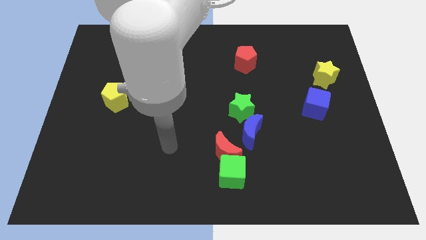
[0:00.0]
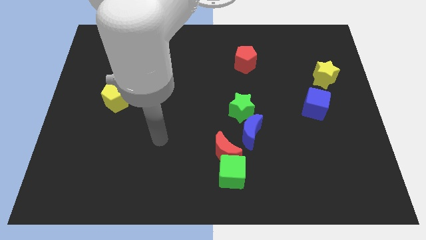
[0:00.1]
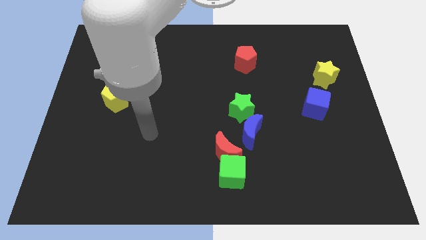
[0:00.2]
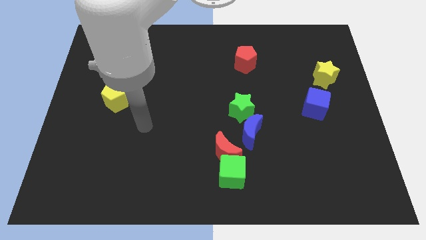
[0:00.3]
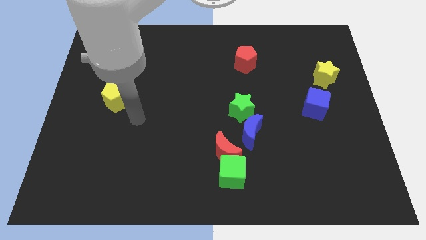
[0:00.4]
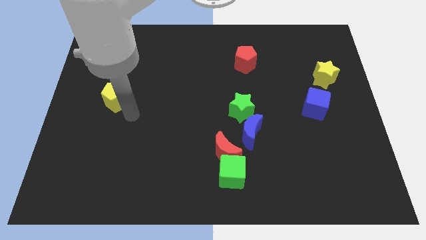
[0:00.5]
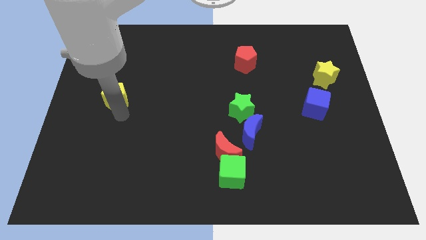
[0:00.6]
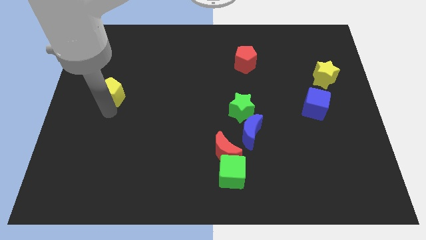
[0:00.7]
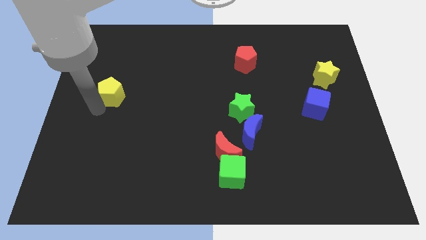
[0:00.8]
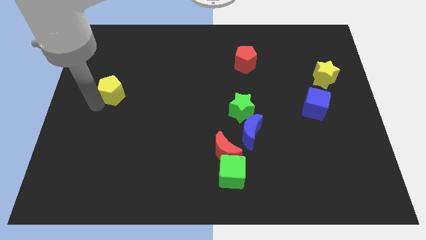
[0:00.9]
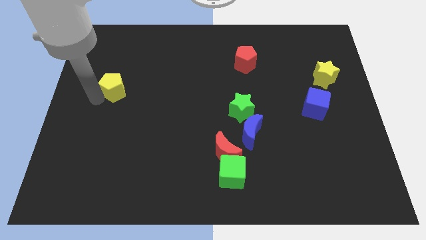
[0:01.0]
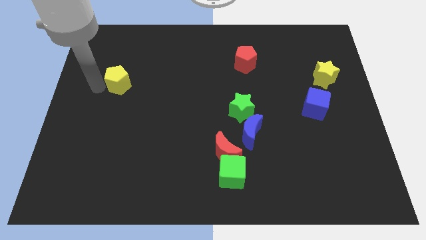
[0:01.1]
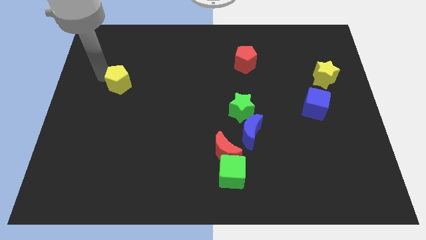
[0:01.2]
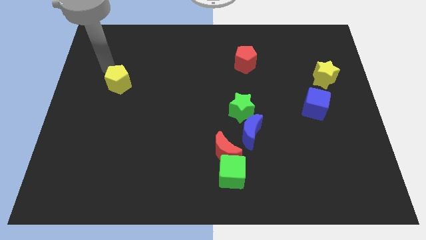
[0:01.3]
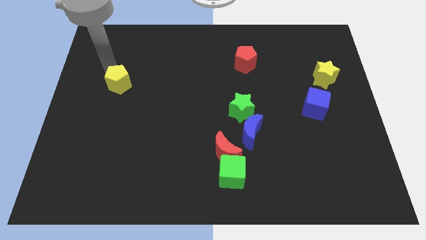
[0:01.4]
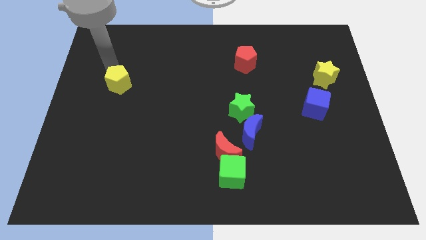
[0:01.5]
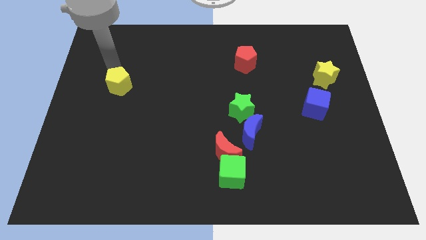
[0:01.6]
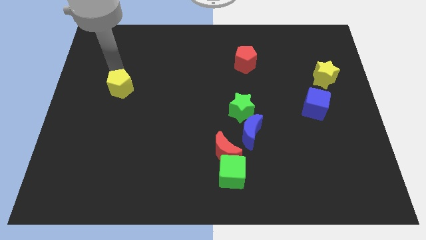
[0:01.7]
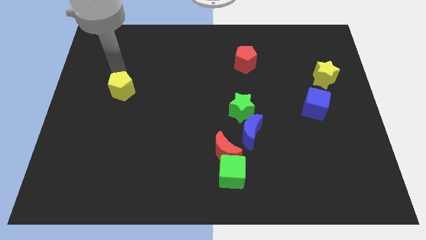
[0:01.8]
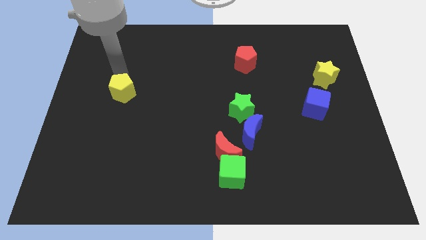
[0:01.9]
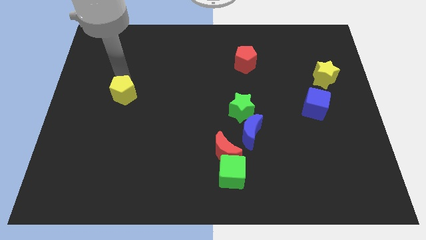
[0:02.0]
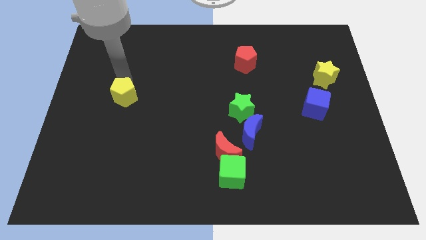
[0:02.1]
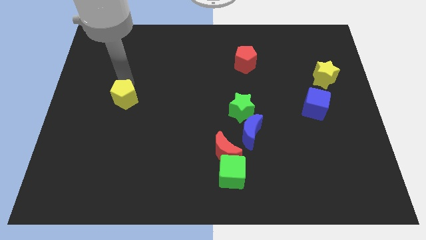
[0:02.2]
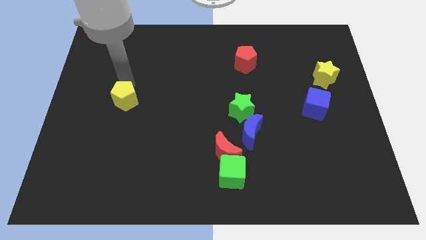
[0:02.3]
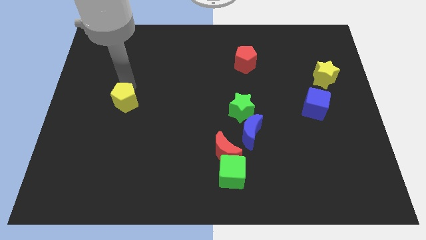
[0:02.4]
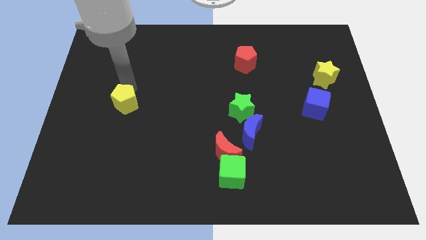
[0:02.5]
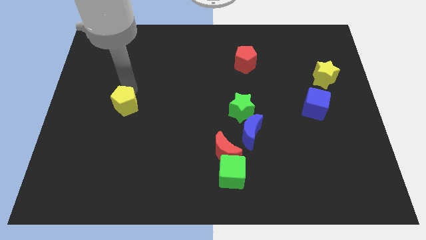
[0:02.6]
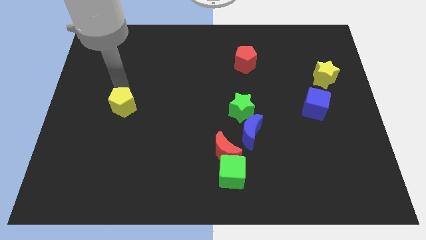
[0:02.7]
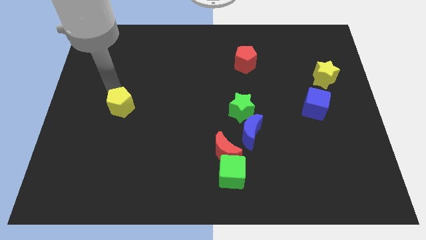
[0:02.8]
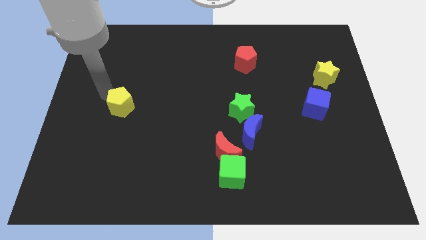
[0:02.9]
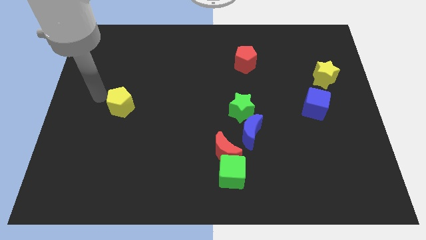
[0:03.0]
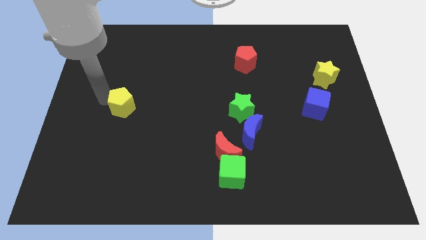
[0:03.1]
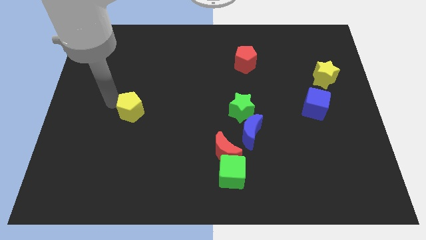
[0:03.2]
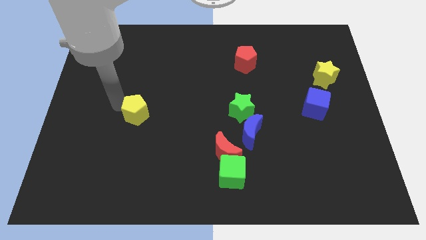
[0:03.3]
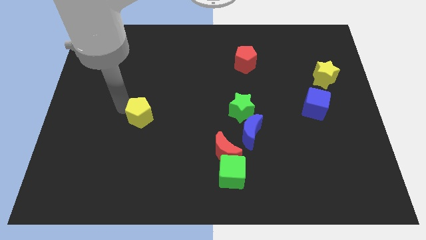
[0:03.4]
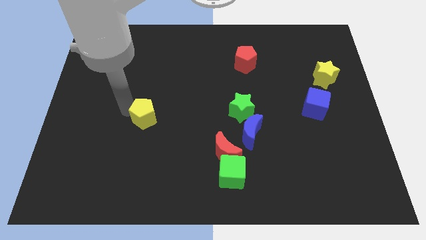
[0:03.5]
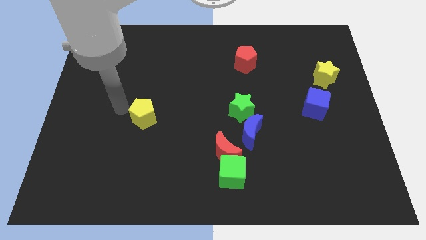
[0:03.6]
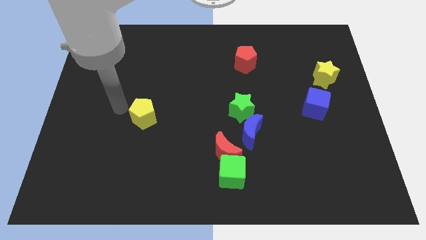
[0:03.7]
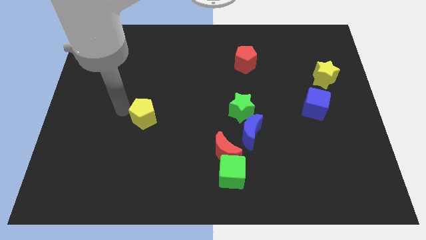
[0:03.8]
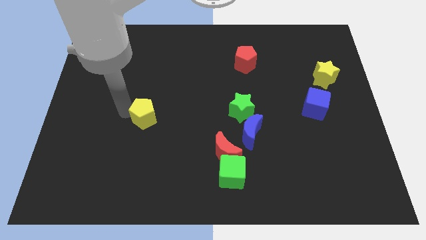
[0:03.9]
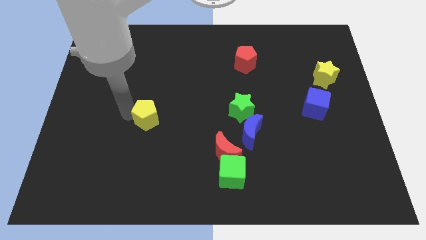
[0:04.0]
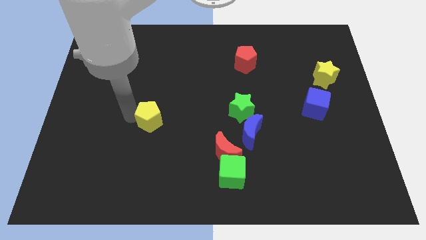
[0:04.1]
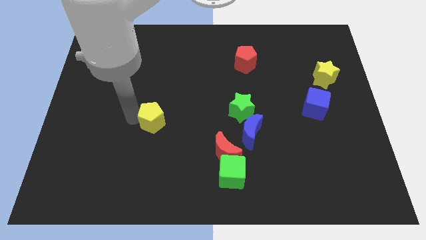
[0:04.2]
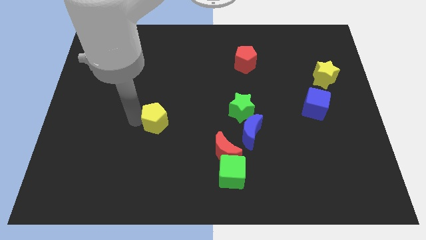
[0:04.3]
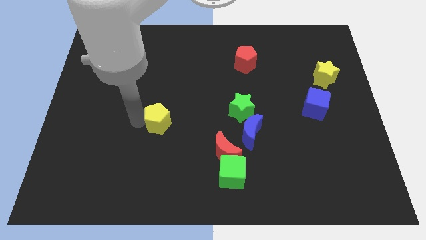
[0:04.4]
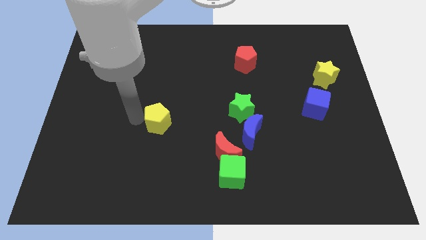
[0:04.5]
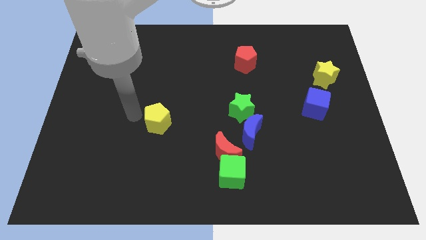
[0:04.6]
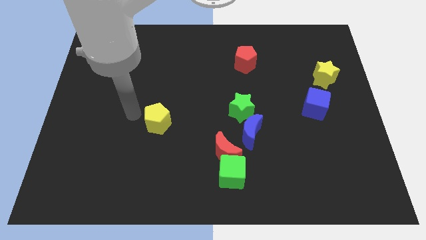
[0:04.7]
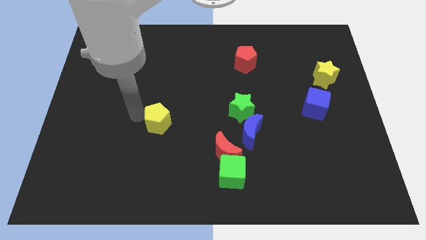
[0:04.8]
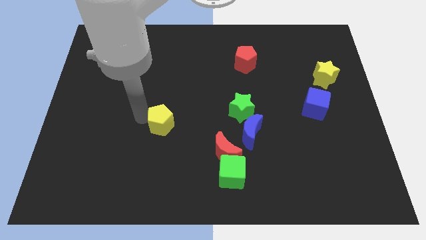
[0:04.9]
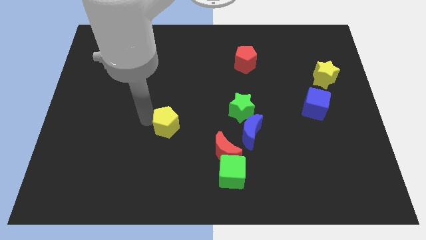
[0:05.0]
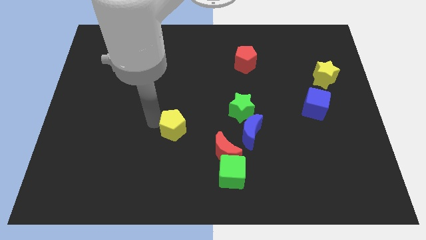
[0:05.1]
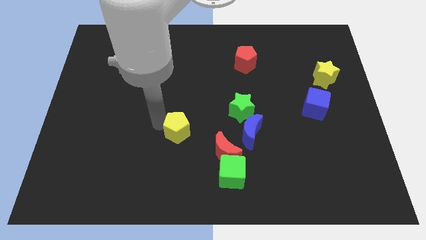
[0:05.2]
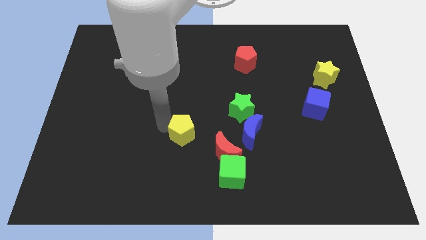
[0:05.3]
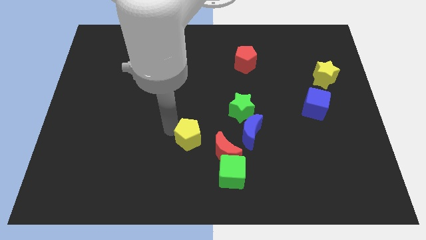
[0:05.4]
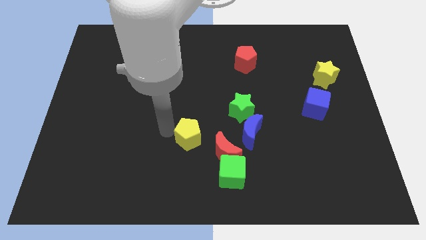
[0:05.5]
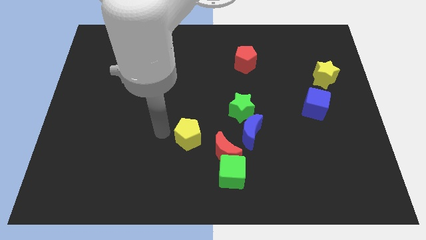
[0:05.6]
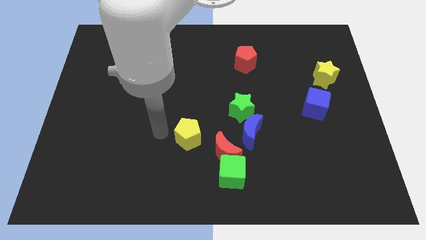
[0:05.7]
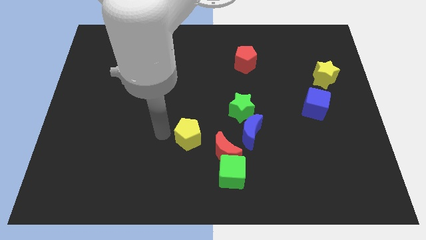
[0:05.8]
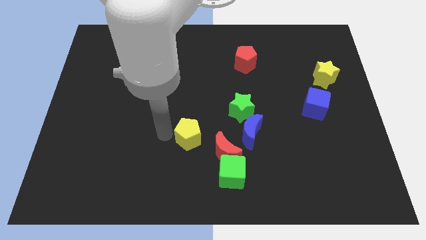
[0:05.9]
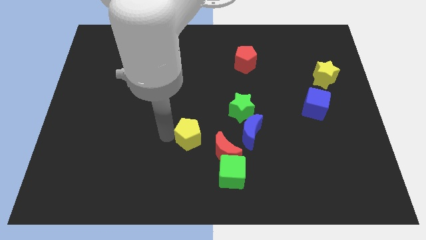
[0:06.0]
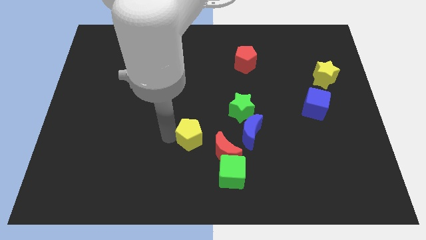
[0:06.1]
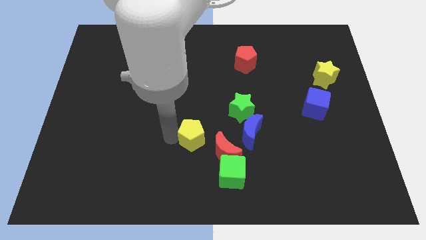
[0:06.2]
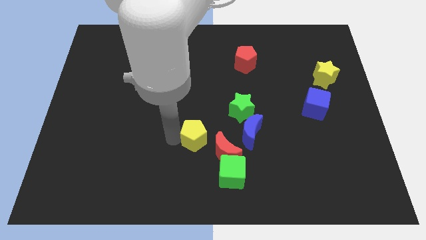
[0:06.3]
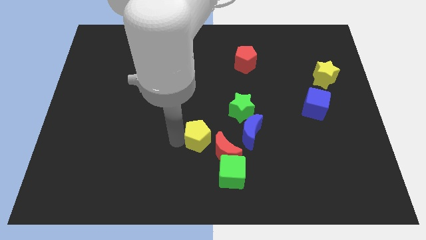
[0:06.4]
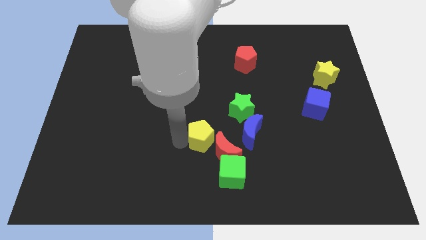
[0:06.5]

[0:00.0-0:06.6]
push the yellow pentagon to the red moon

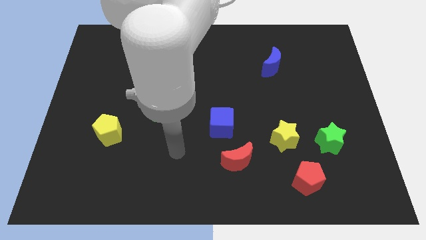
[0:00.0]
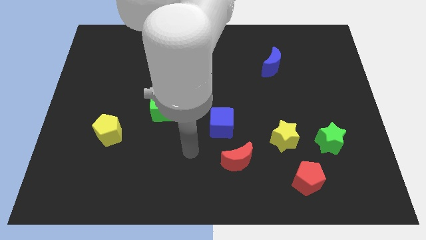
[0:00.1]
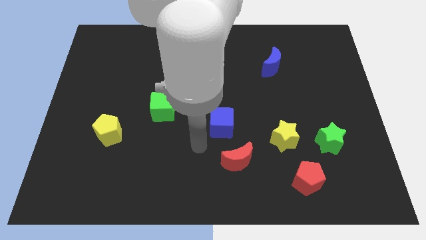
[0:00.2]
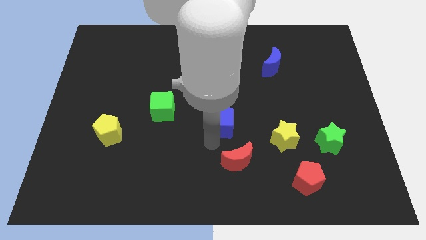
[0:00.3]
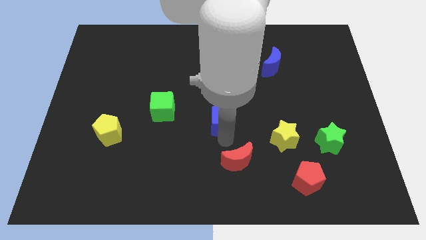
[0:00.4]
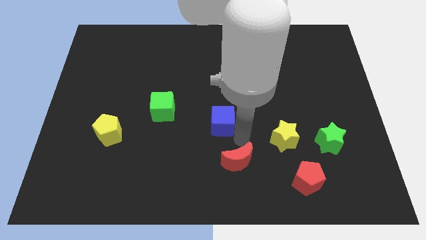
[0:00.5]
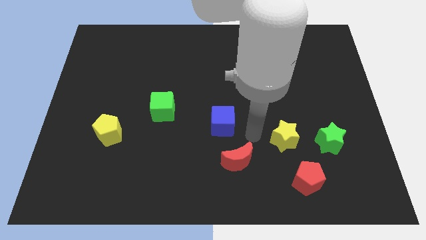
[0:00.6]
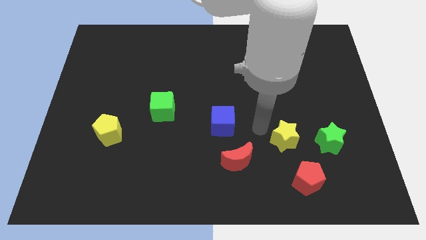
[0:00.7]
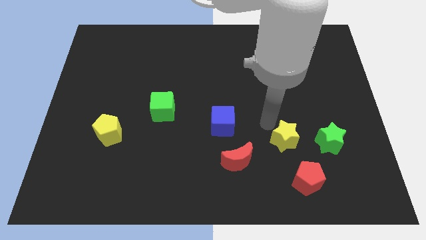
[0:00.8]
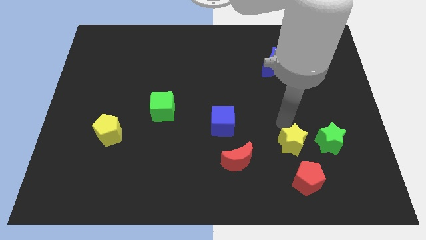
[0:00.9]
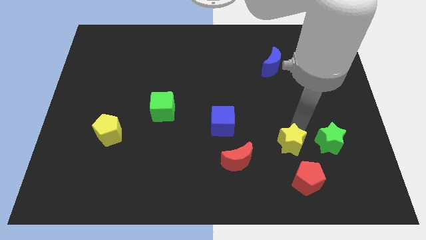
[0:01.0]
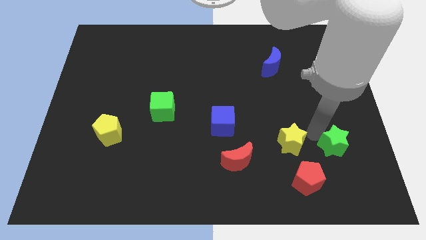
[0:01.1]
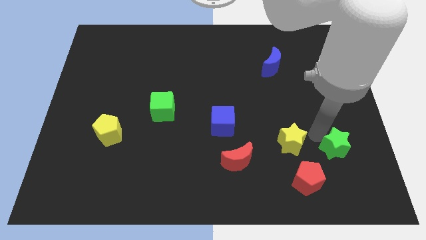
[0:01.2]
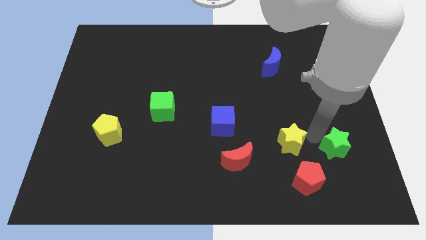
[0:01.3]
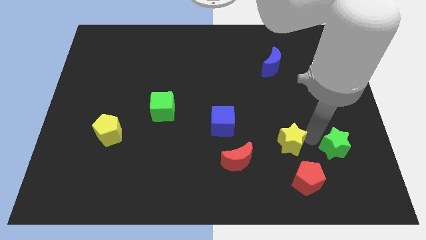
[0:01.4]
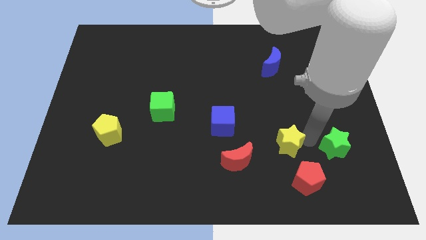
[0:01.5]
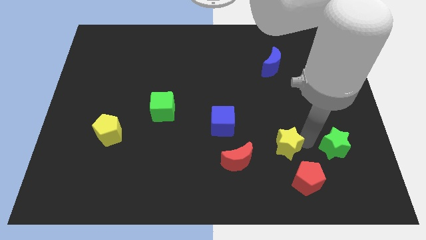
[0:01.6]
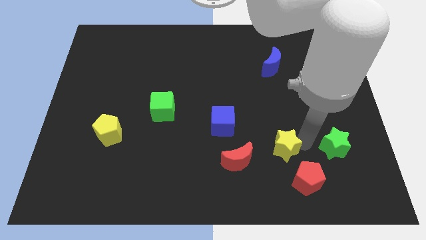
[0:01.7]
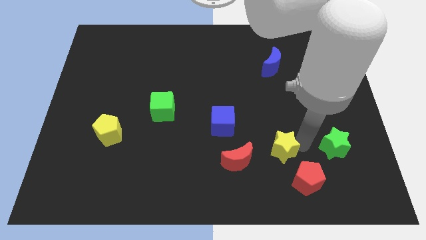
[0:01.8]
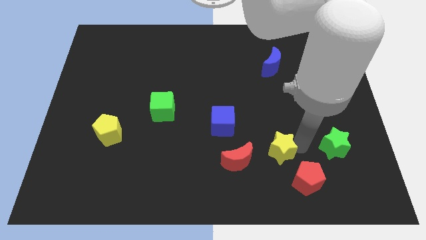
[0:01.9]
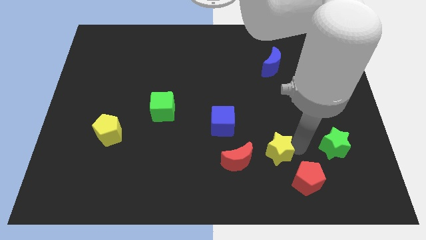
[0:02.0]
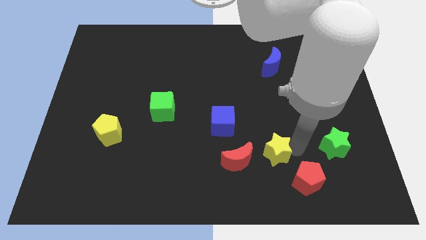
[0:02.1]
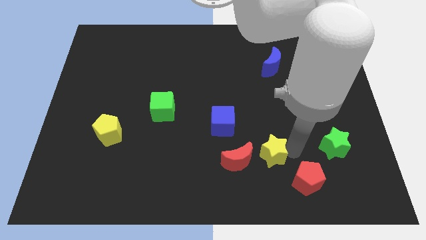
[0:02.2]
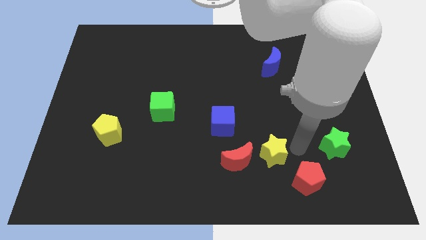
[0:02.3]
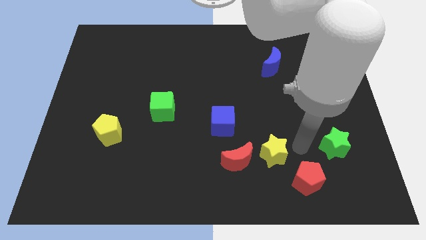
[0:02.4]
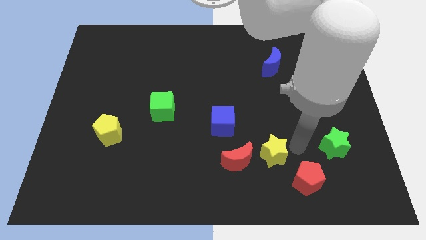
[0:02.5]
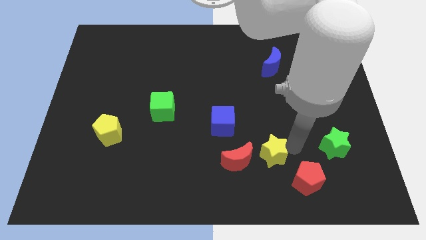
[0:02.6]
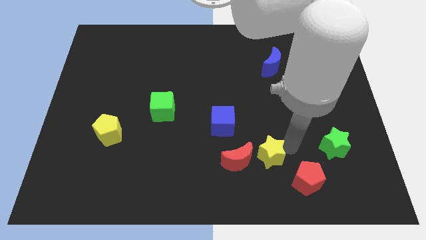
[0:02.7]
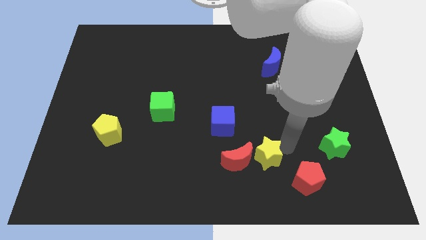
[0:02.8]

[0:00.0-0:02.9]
put the yellow star to the red moon
